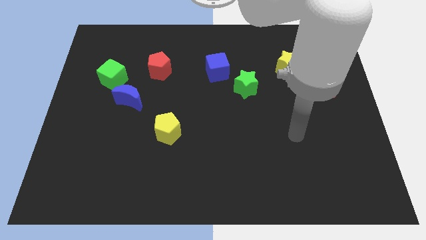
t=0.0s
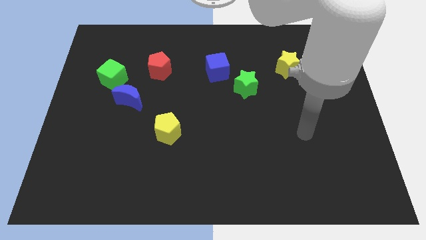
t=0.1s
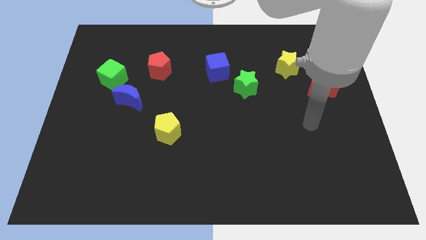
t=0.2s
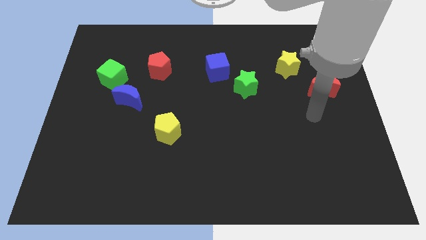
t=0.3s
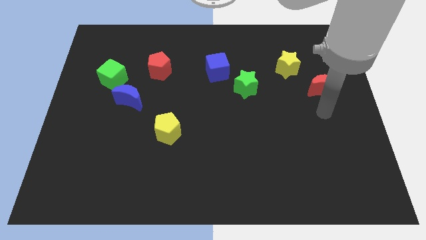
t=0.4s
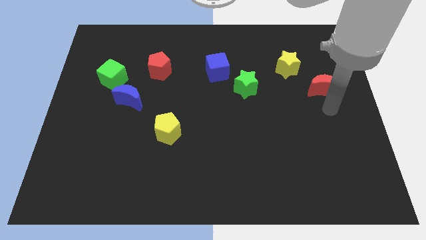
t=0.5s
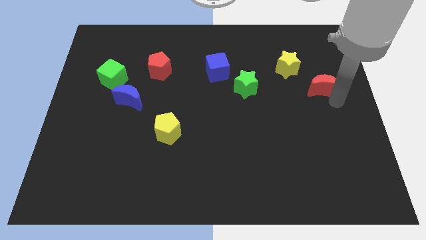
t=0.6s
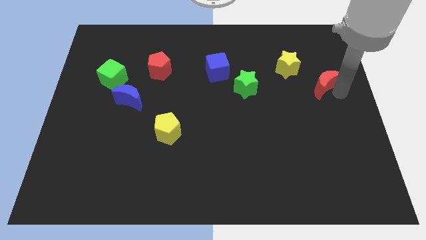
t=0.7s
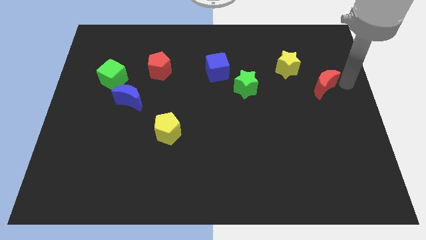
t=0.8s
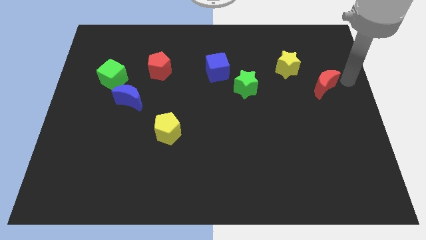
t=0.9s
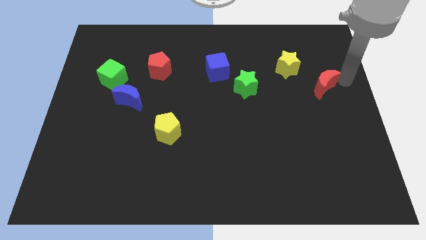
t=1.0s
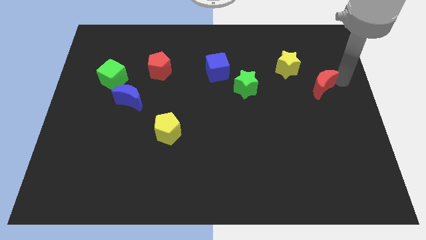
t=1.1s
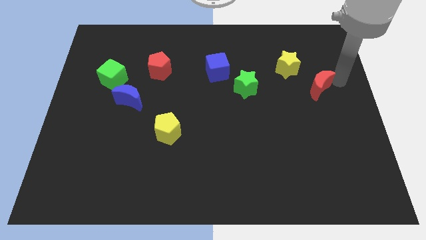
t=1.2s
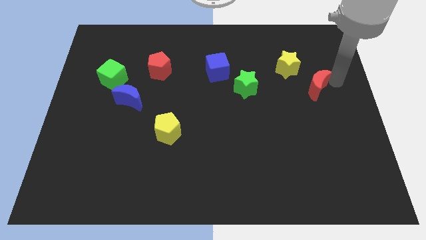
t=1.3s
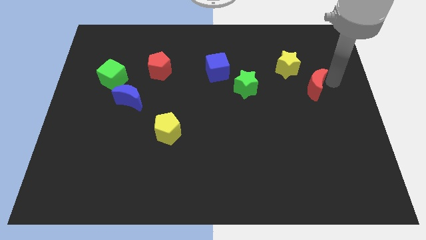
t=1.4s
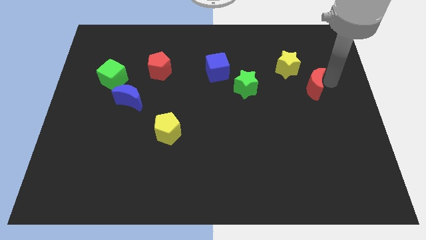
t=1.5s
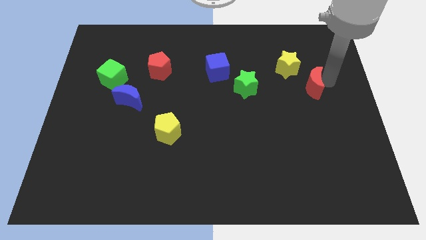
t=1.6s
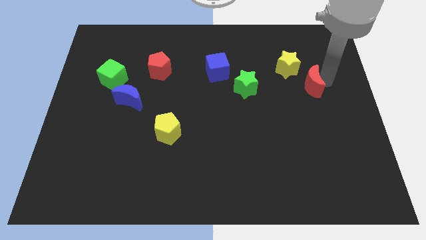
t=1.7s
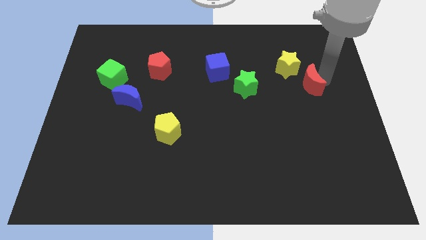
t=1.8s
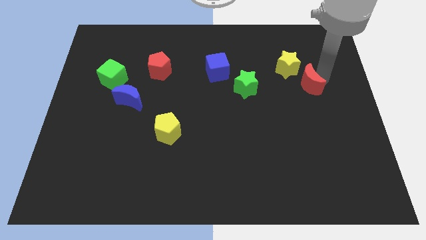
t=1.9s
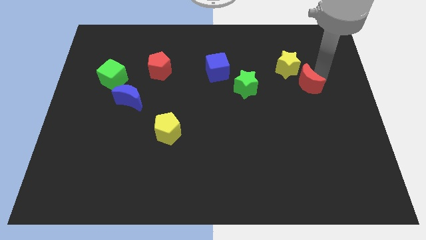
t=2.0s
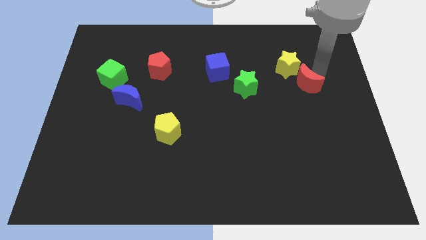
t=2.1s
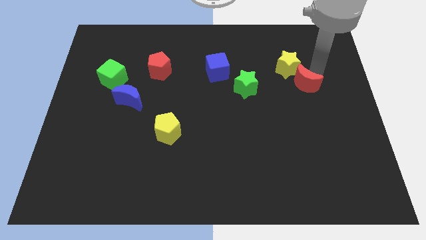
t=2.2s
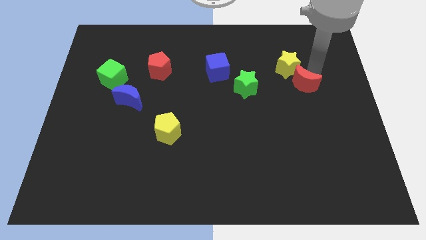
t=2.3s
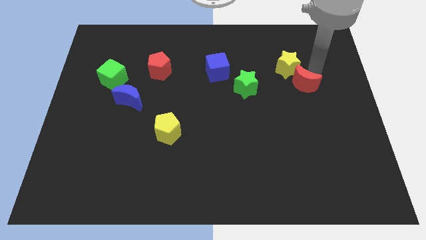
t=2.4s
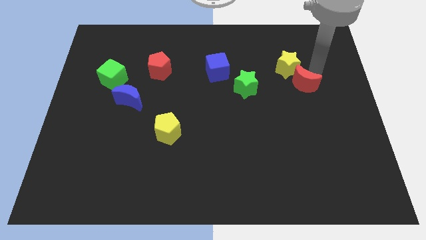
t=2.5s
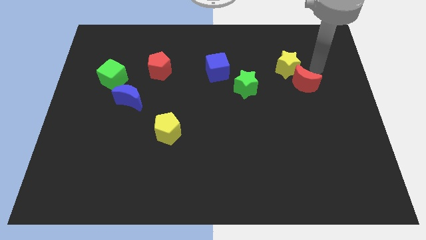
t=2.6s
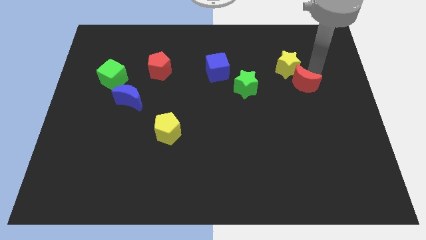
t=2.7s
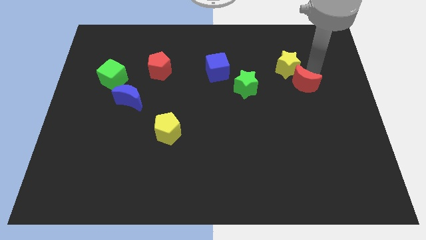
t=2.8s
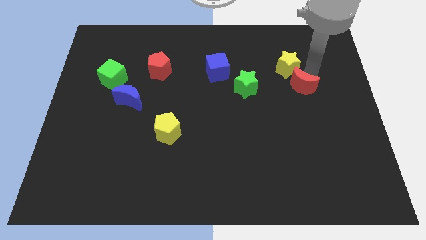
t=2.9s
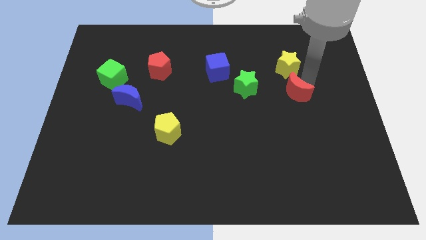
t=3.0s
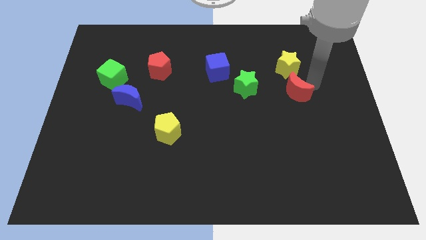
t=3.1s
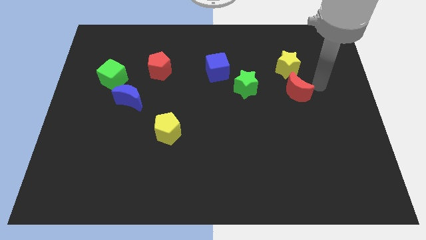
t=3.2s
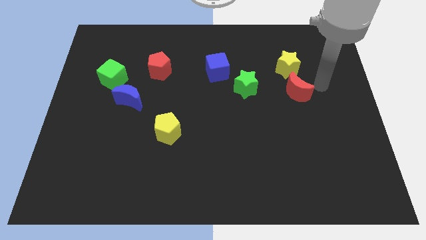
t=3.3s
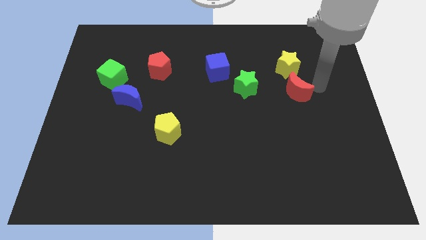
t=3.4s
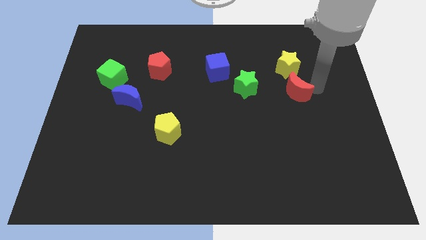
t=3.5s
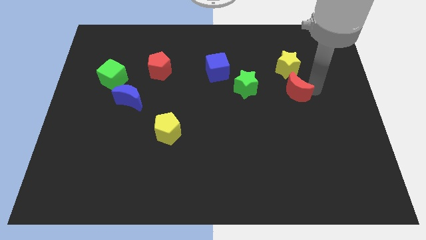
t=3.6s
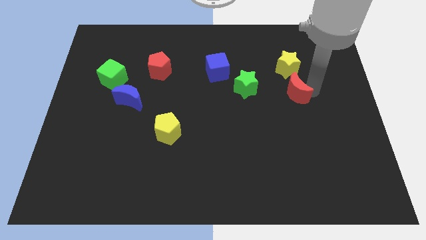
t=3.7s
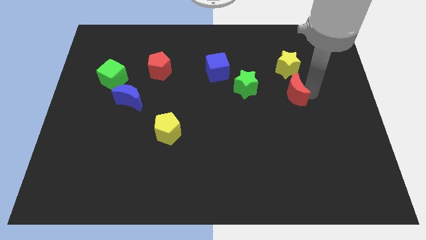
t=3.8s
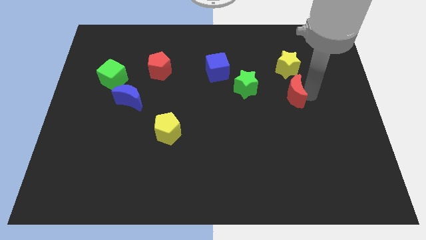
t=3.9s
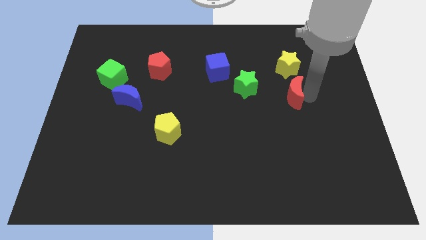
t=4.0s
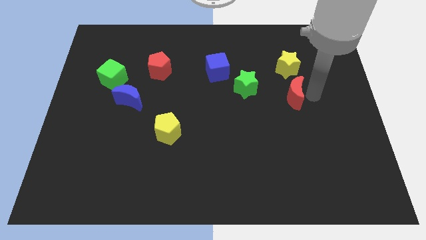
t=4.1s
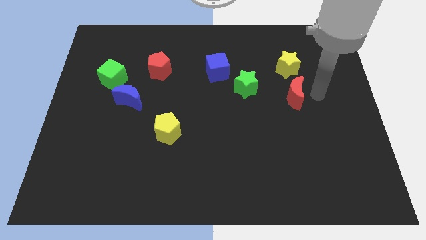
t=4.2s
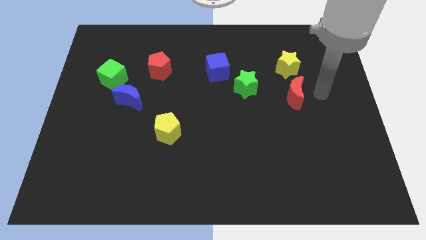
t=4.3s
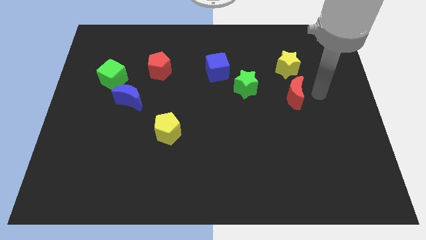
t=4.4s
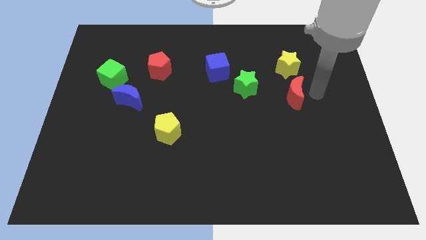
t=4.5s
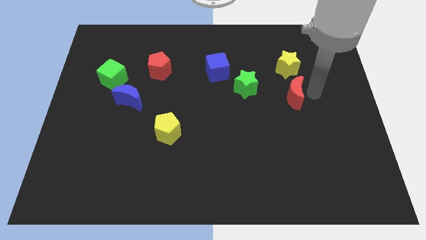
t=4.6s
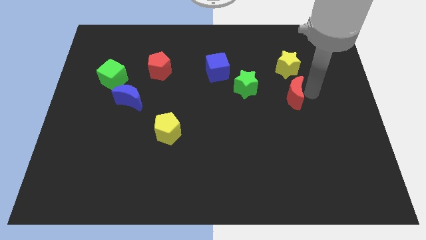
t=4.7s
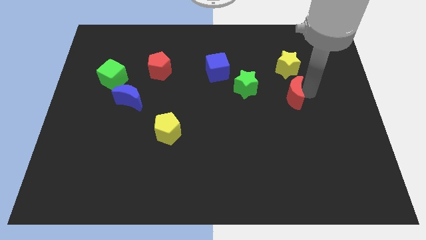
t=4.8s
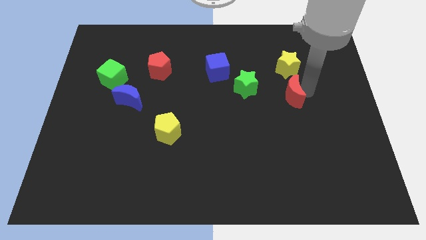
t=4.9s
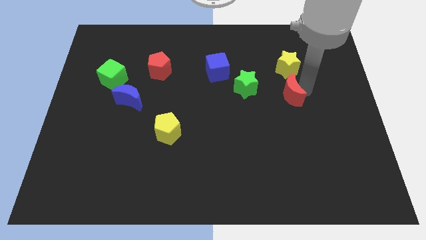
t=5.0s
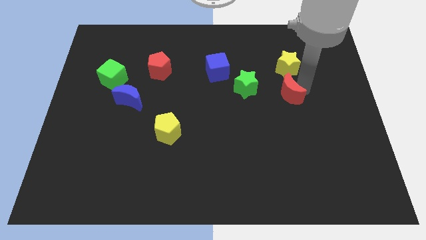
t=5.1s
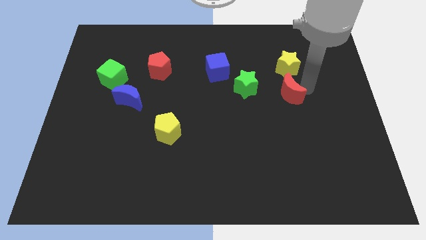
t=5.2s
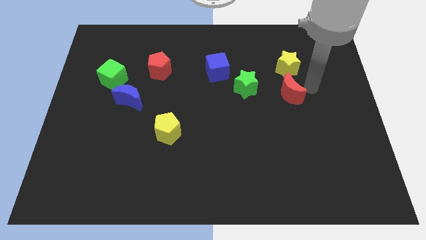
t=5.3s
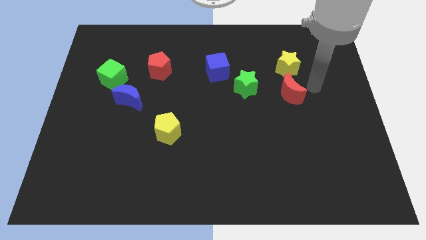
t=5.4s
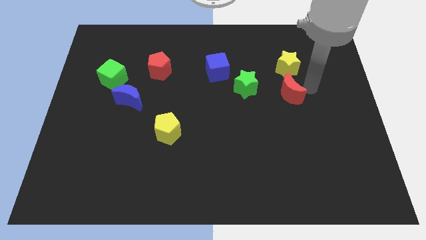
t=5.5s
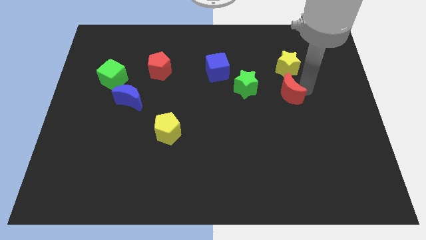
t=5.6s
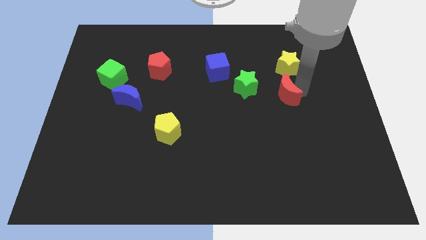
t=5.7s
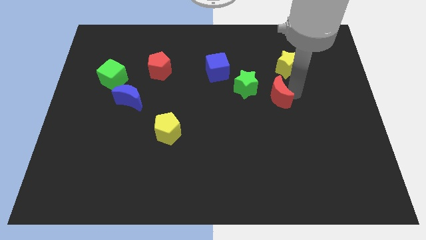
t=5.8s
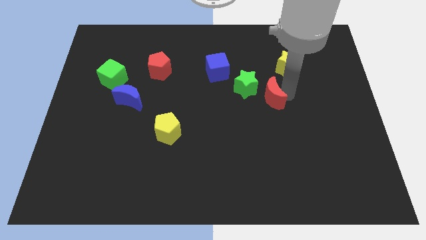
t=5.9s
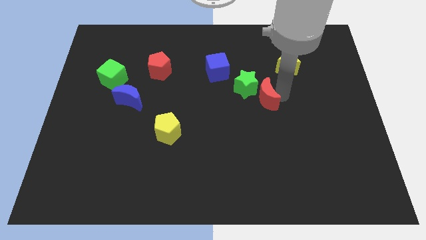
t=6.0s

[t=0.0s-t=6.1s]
slide the red moon to the middle of the board

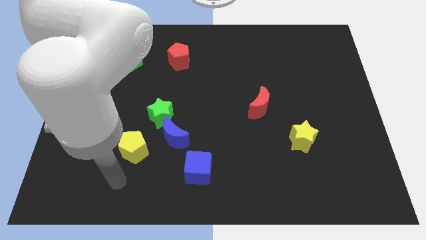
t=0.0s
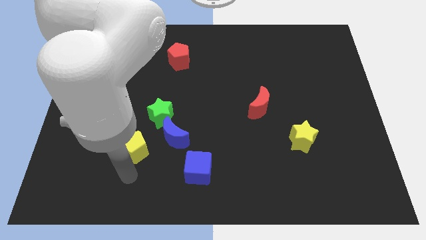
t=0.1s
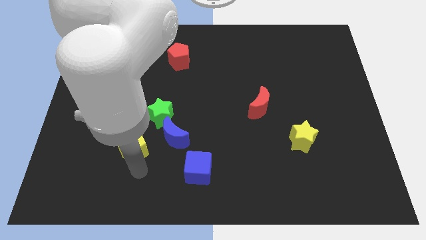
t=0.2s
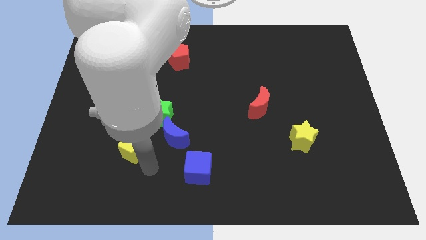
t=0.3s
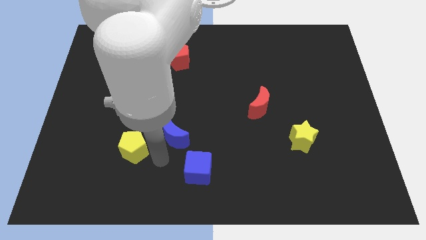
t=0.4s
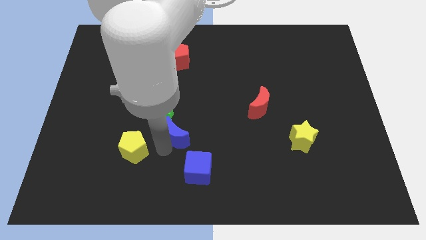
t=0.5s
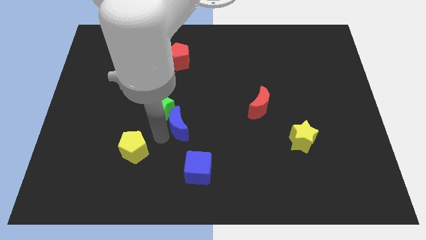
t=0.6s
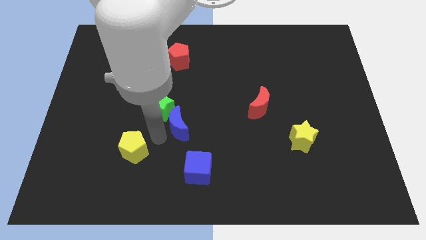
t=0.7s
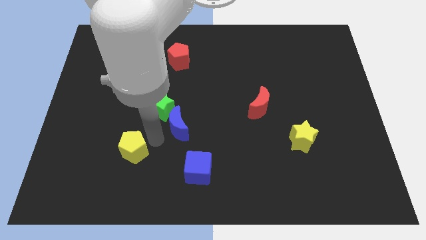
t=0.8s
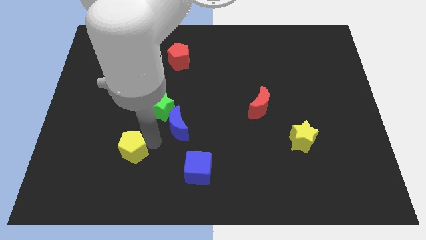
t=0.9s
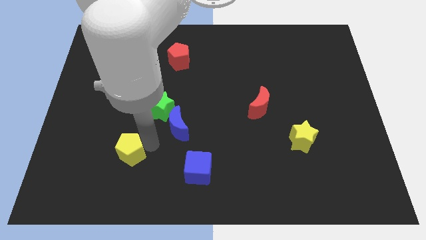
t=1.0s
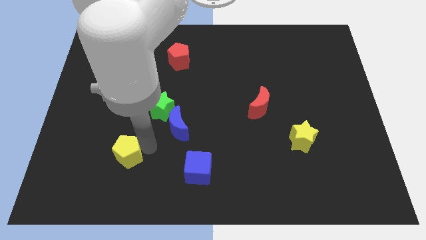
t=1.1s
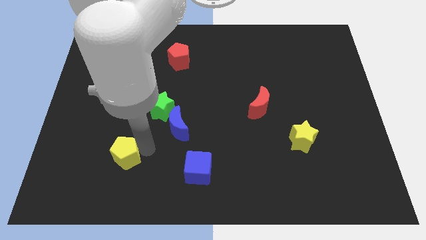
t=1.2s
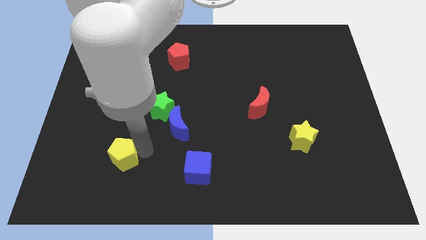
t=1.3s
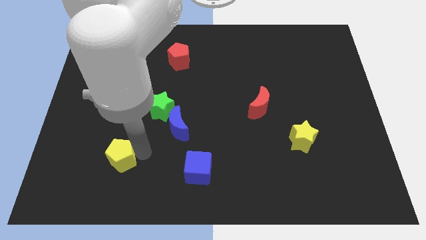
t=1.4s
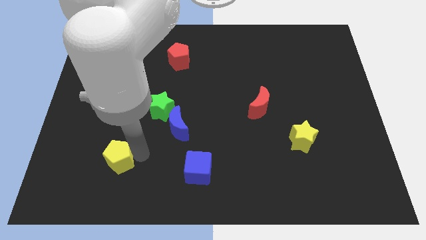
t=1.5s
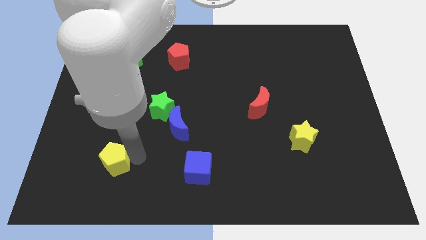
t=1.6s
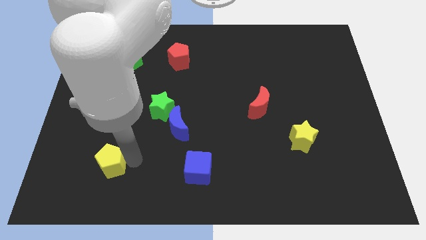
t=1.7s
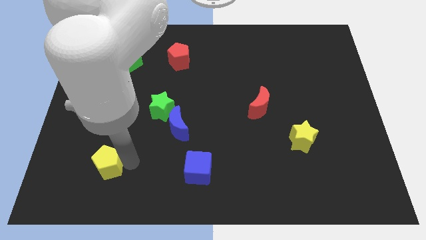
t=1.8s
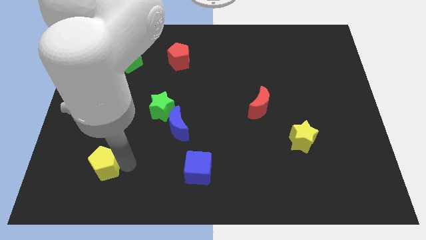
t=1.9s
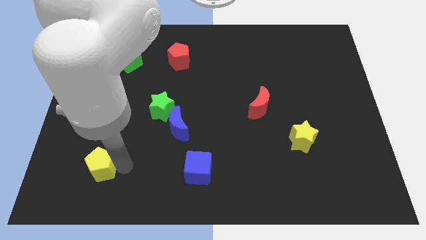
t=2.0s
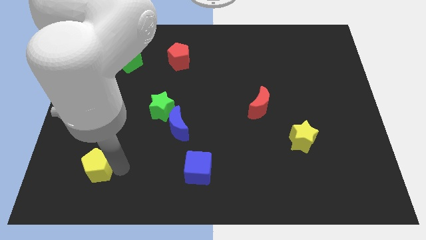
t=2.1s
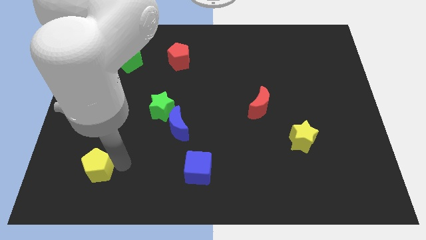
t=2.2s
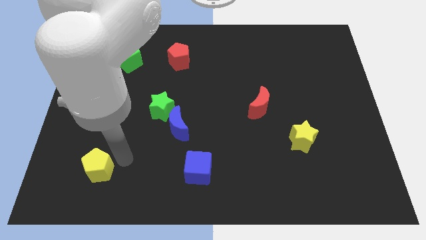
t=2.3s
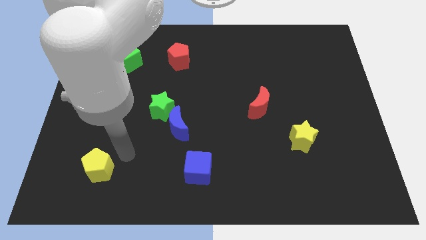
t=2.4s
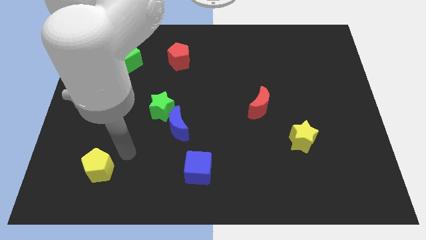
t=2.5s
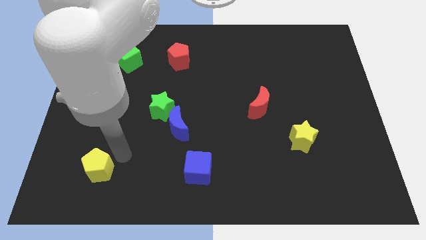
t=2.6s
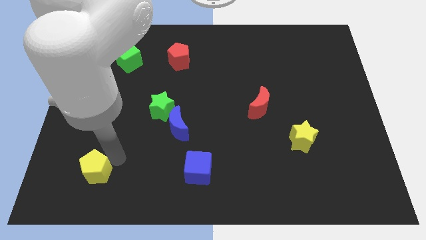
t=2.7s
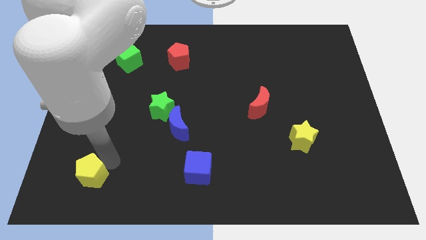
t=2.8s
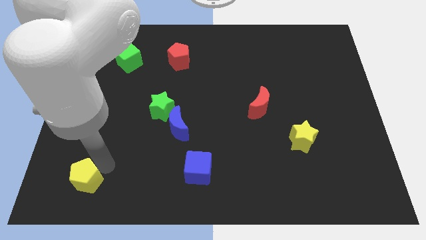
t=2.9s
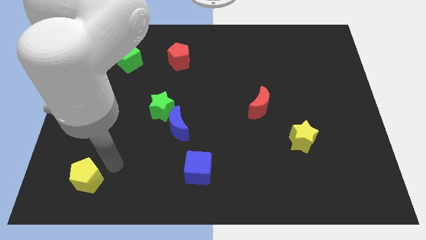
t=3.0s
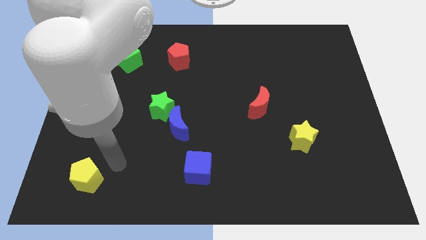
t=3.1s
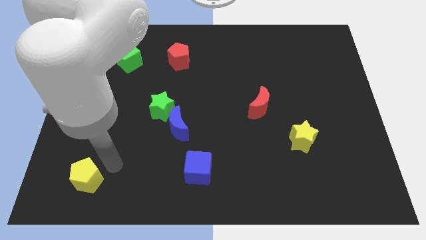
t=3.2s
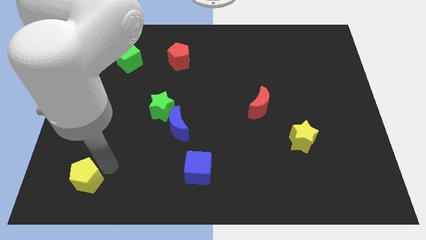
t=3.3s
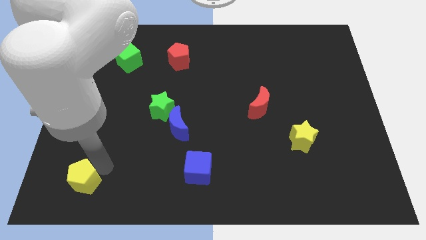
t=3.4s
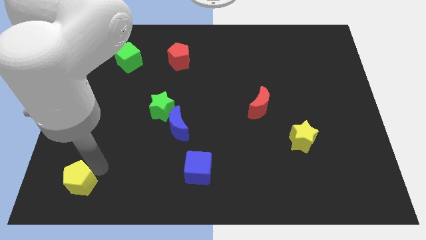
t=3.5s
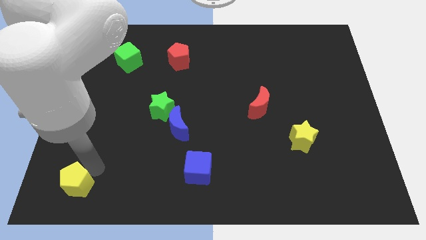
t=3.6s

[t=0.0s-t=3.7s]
push the yellow pentagon to the bottom left of the board
